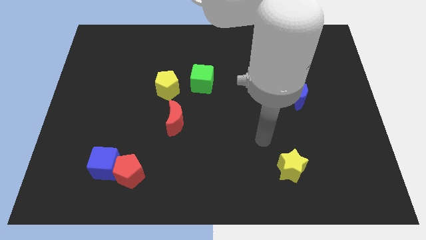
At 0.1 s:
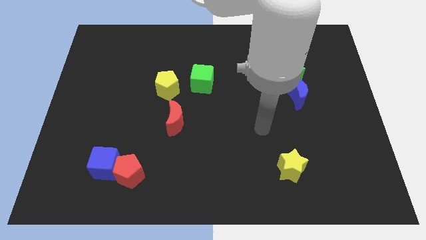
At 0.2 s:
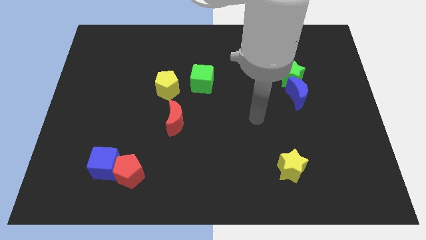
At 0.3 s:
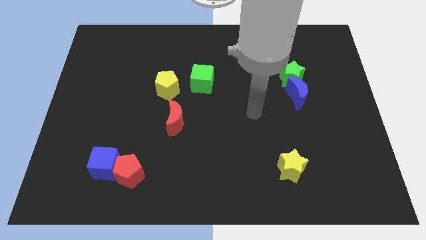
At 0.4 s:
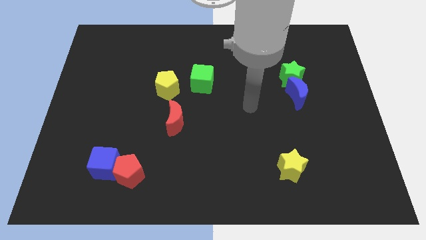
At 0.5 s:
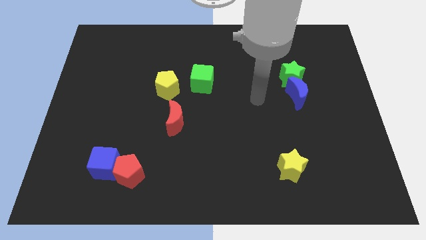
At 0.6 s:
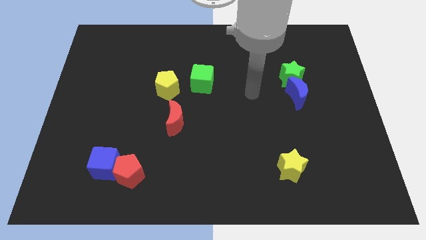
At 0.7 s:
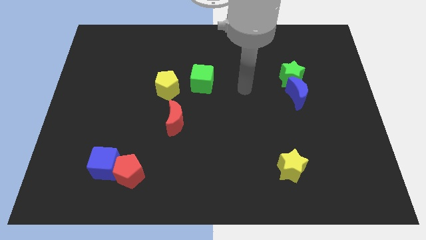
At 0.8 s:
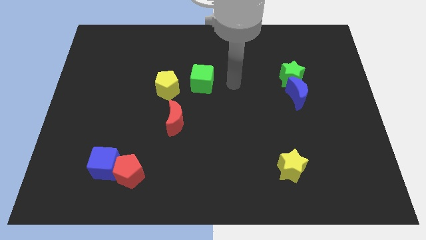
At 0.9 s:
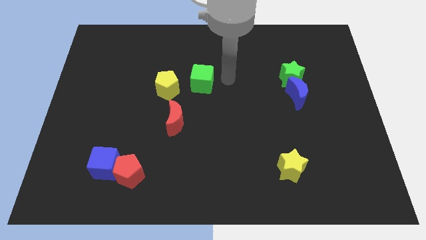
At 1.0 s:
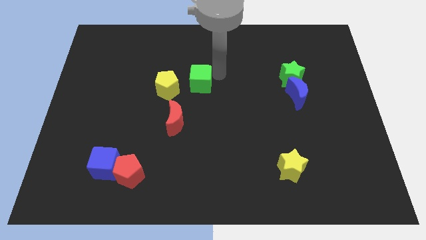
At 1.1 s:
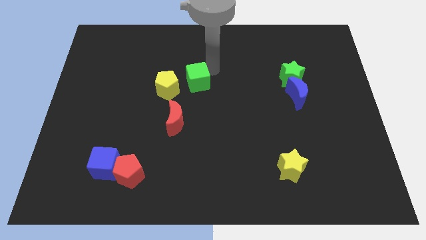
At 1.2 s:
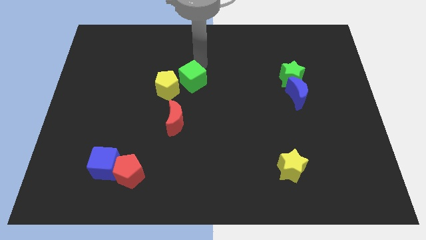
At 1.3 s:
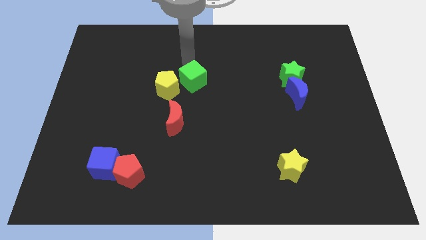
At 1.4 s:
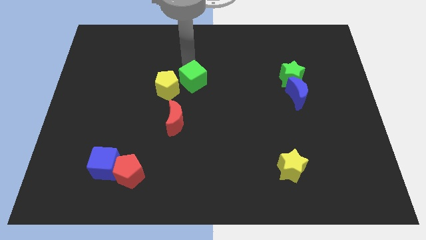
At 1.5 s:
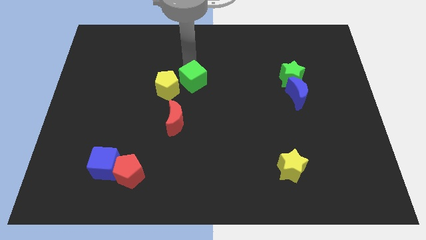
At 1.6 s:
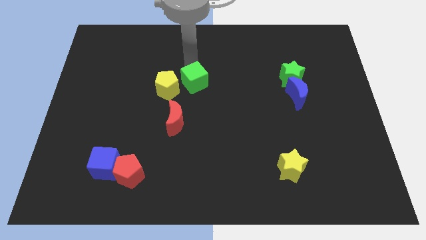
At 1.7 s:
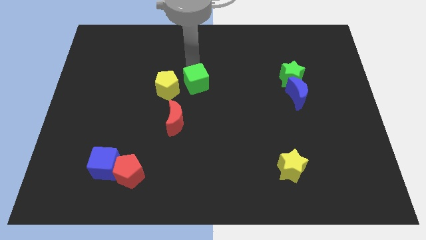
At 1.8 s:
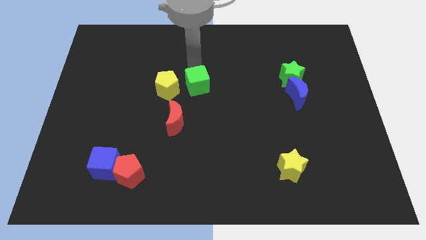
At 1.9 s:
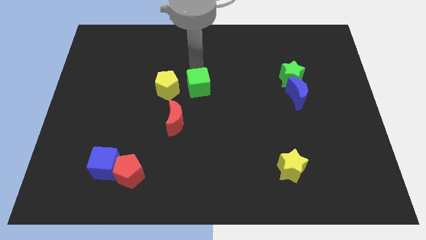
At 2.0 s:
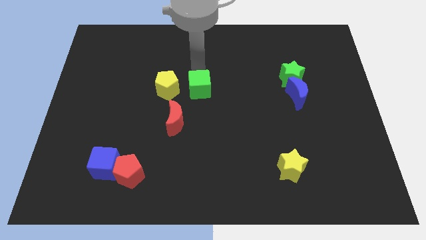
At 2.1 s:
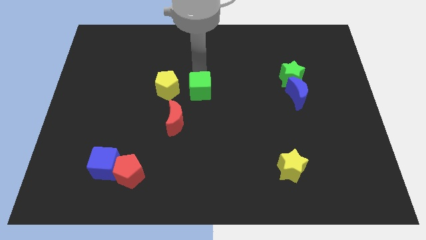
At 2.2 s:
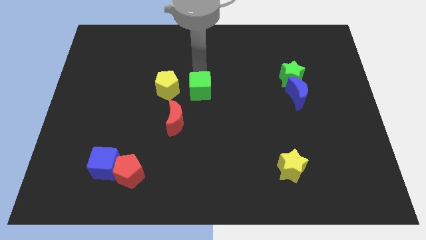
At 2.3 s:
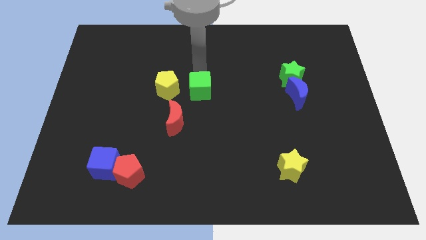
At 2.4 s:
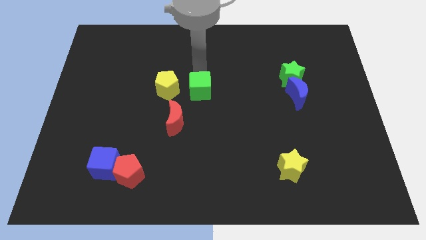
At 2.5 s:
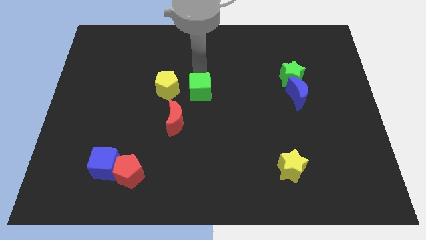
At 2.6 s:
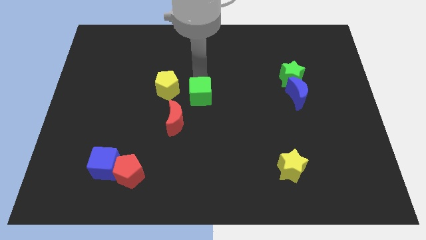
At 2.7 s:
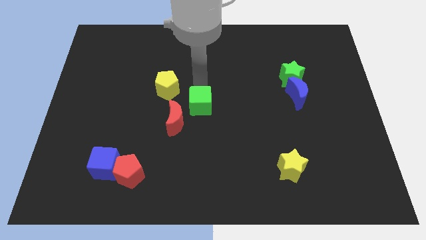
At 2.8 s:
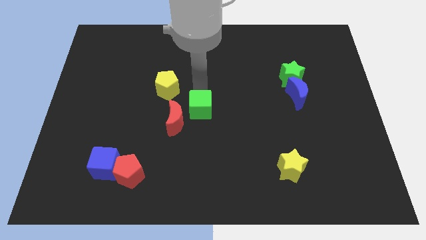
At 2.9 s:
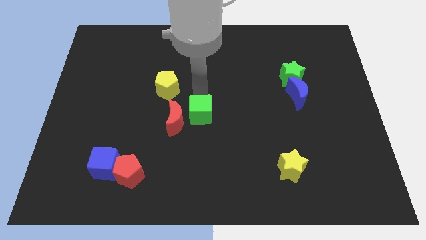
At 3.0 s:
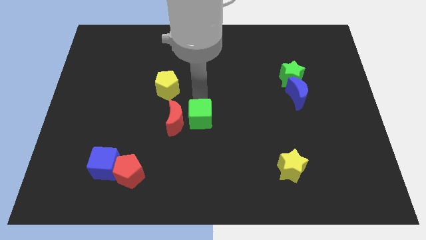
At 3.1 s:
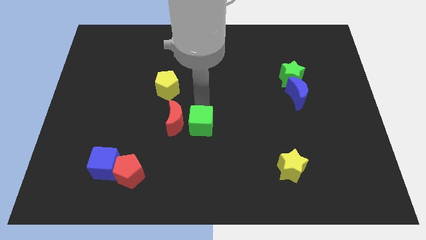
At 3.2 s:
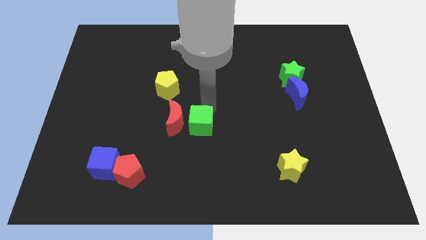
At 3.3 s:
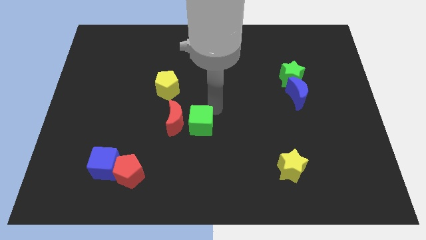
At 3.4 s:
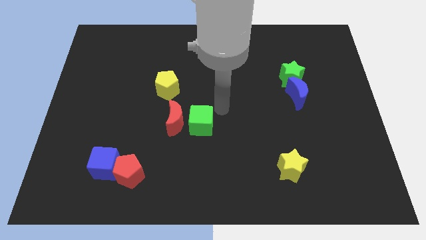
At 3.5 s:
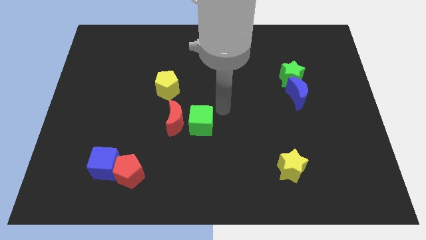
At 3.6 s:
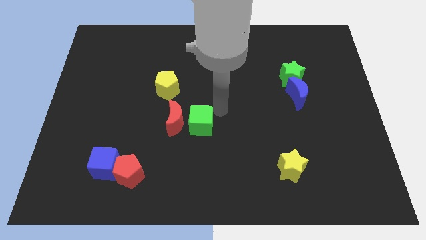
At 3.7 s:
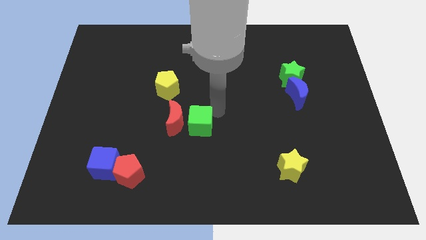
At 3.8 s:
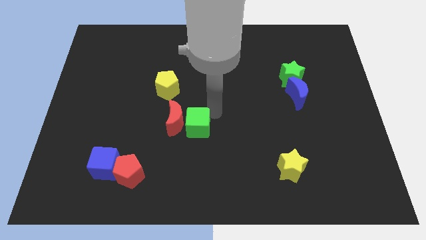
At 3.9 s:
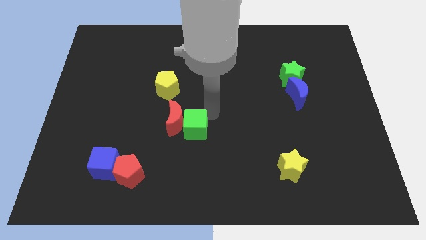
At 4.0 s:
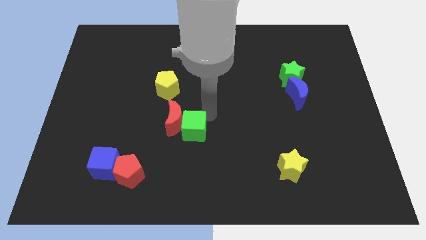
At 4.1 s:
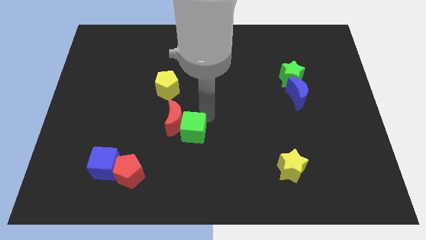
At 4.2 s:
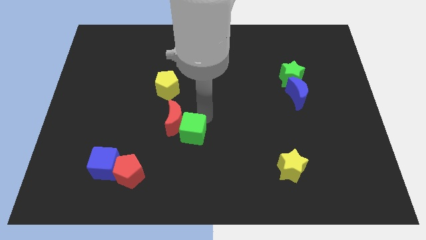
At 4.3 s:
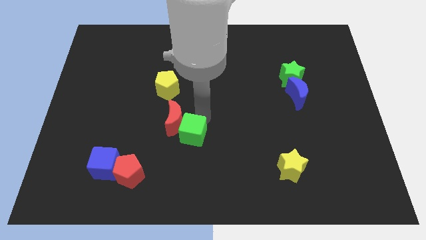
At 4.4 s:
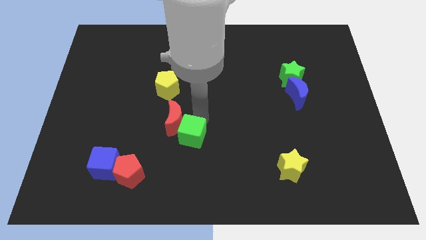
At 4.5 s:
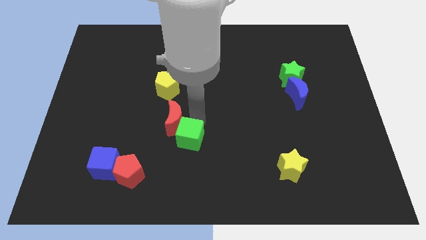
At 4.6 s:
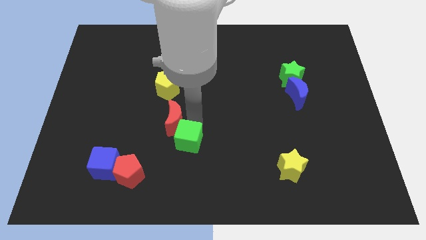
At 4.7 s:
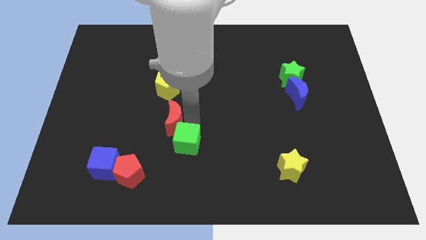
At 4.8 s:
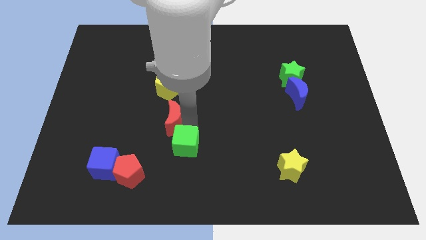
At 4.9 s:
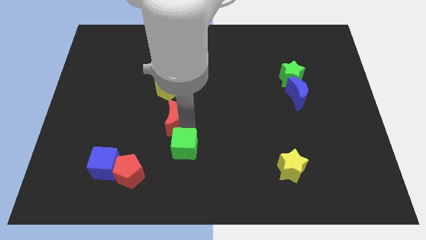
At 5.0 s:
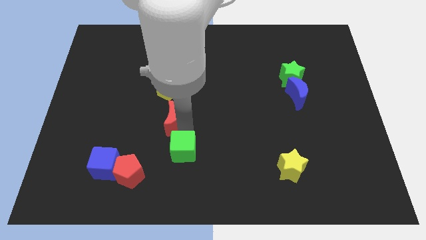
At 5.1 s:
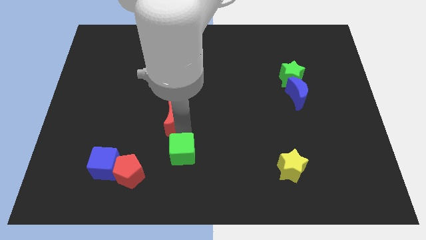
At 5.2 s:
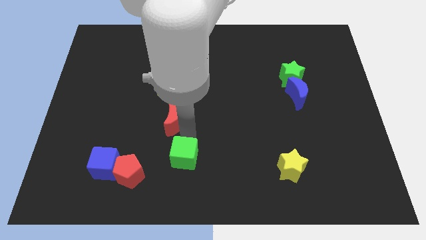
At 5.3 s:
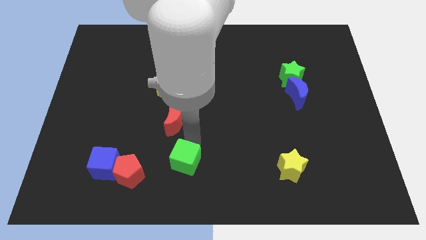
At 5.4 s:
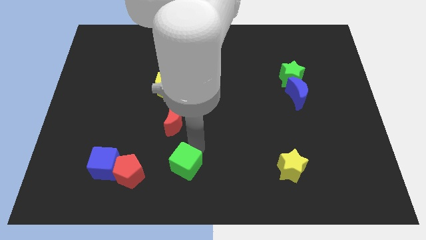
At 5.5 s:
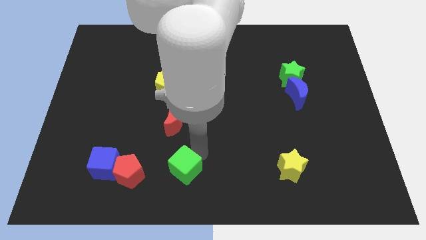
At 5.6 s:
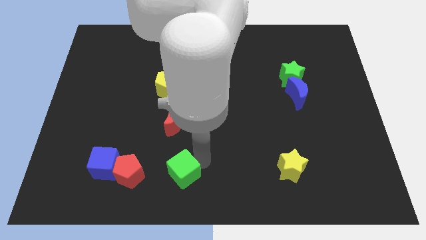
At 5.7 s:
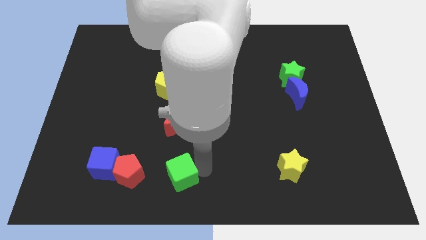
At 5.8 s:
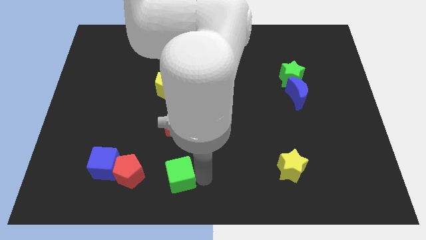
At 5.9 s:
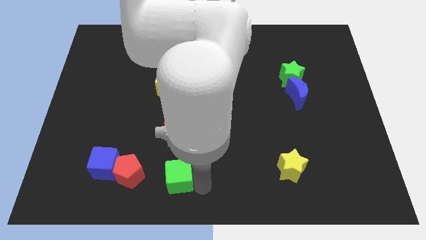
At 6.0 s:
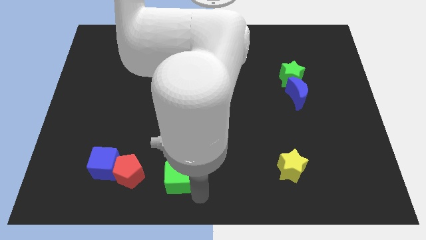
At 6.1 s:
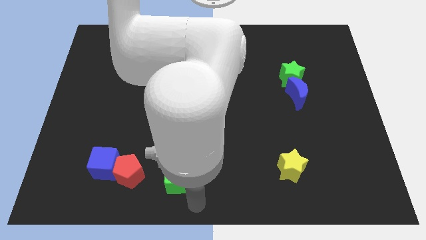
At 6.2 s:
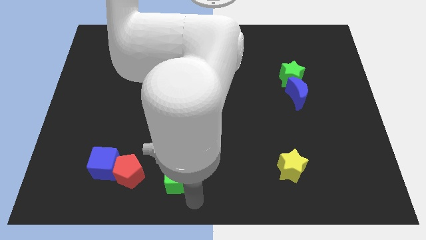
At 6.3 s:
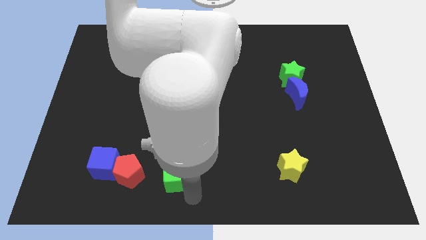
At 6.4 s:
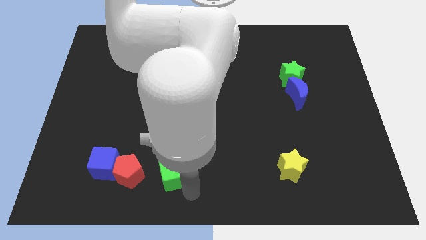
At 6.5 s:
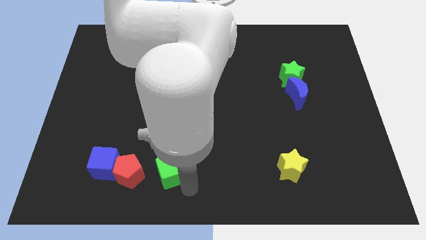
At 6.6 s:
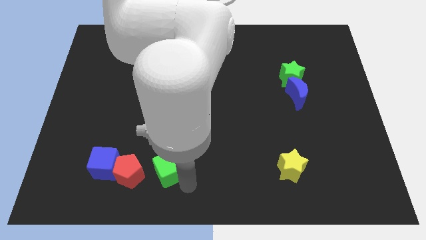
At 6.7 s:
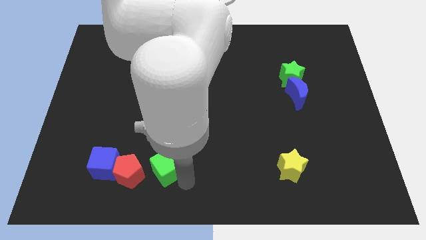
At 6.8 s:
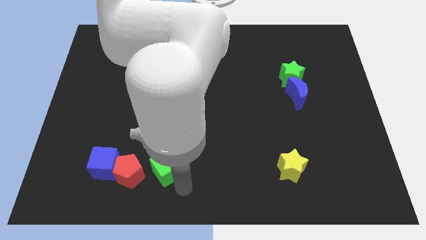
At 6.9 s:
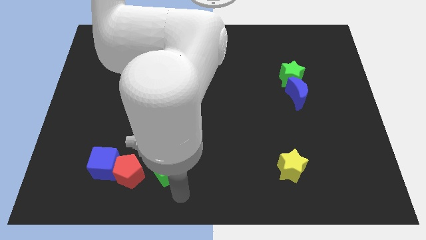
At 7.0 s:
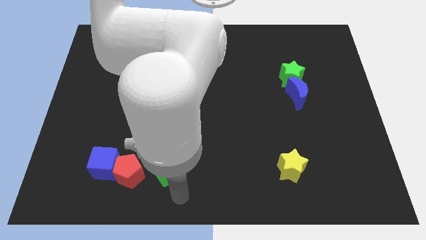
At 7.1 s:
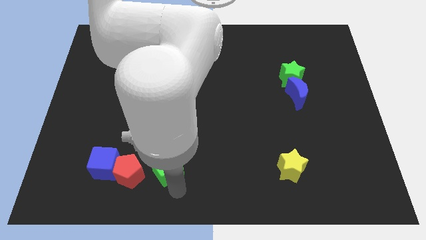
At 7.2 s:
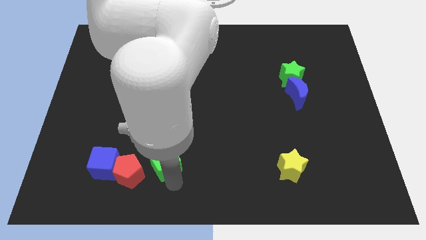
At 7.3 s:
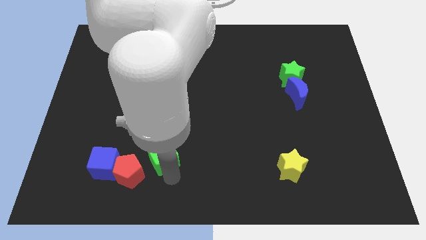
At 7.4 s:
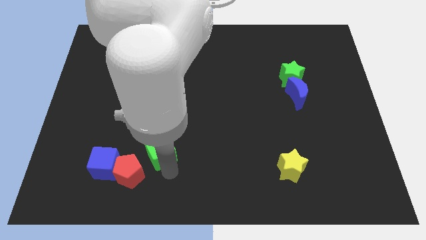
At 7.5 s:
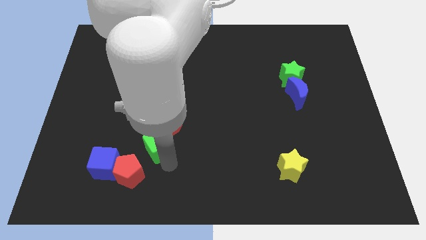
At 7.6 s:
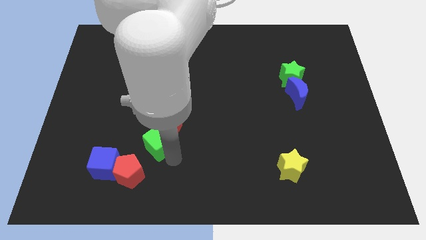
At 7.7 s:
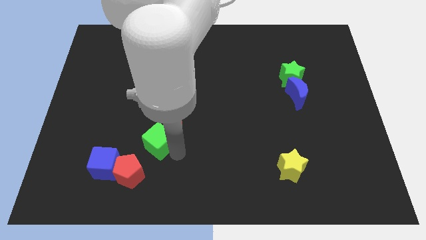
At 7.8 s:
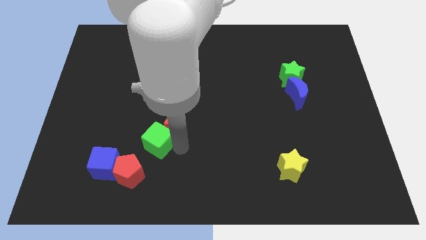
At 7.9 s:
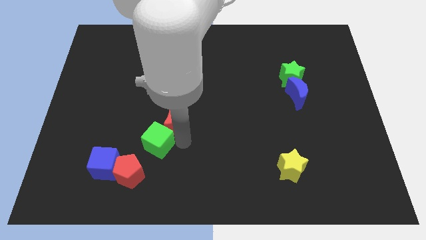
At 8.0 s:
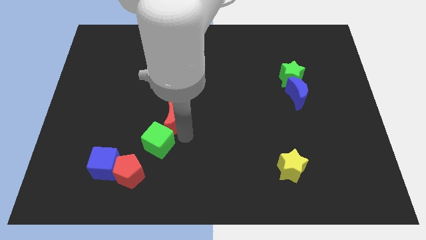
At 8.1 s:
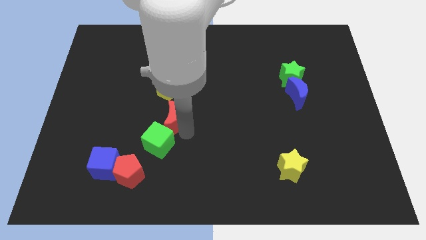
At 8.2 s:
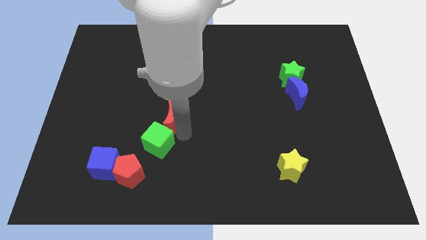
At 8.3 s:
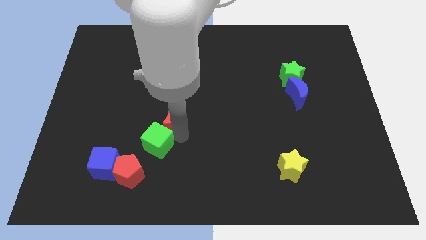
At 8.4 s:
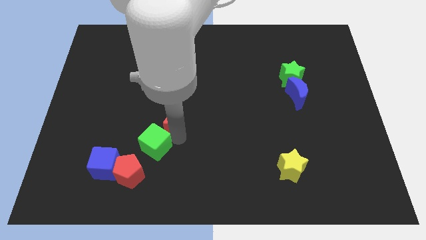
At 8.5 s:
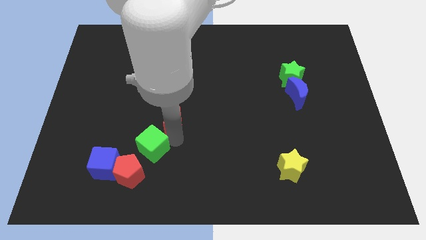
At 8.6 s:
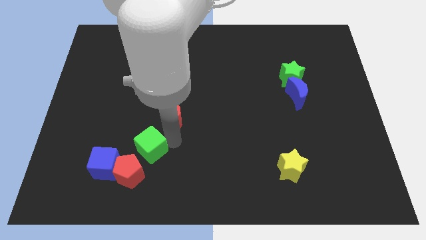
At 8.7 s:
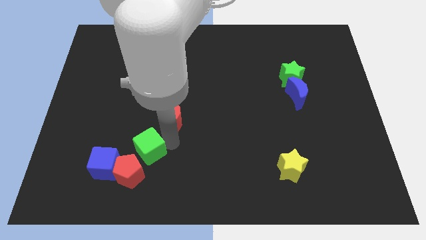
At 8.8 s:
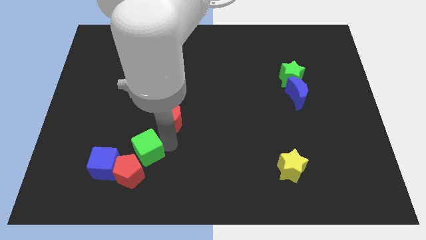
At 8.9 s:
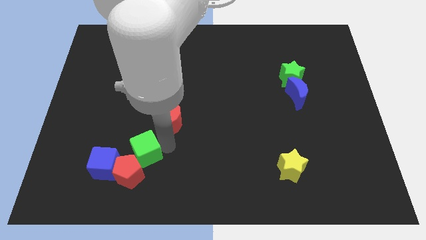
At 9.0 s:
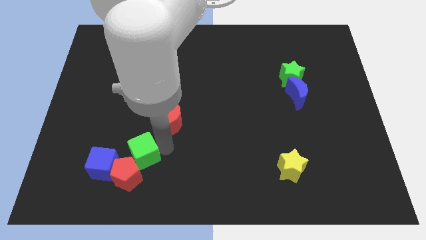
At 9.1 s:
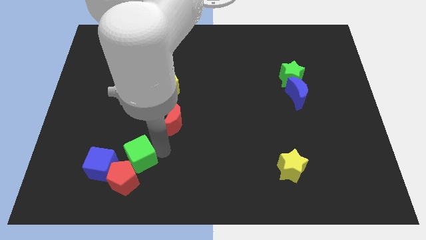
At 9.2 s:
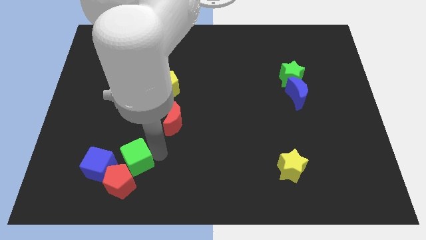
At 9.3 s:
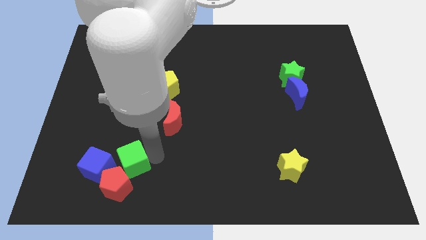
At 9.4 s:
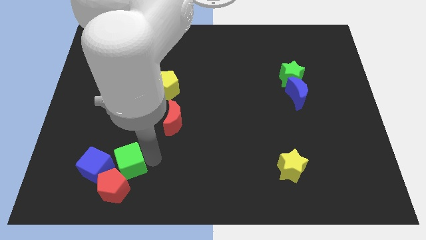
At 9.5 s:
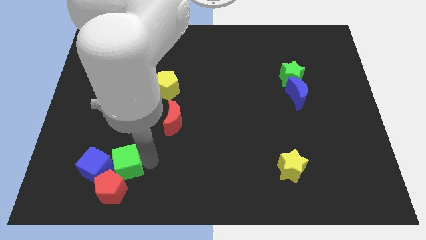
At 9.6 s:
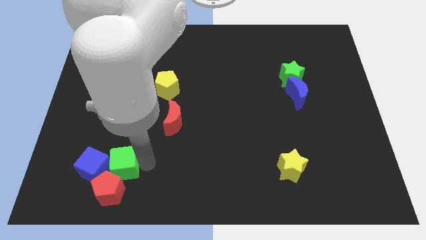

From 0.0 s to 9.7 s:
push the green cube towards the blue cube
